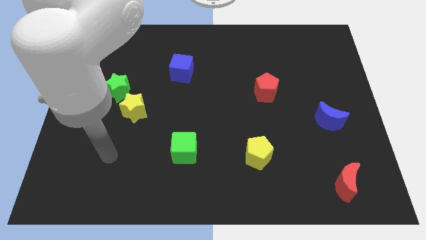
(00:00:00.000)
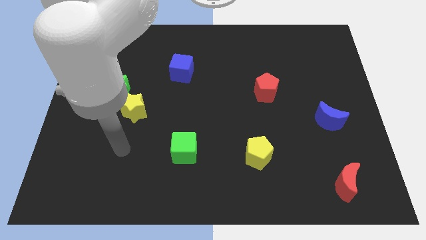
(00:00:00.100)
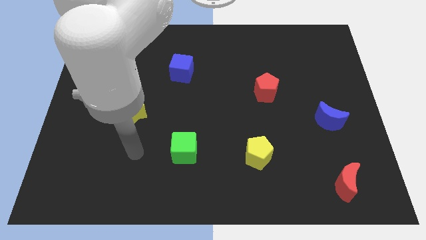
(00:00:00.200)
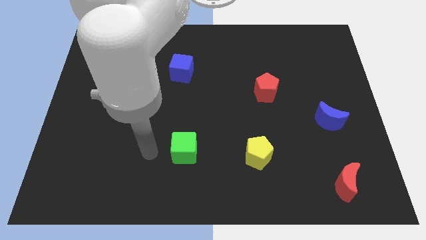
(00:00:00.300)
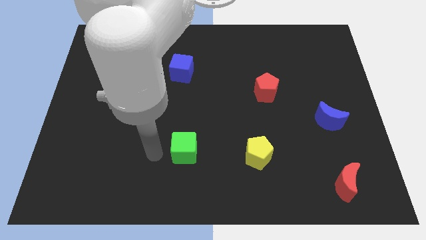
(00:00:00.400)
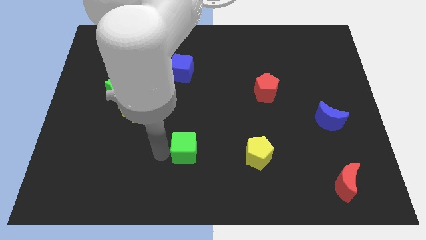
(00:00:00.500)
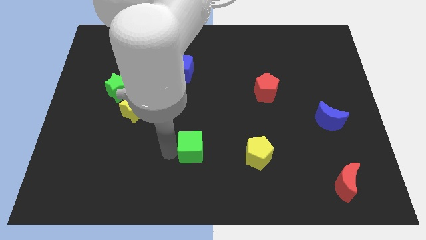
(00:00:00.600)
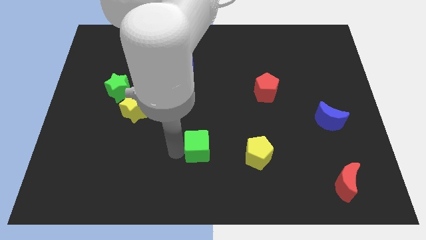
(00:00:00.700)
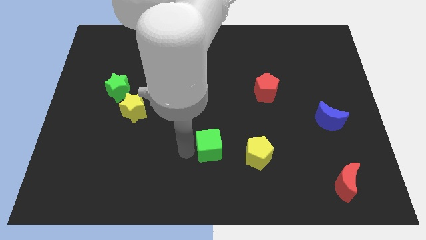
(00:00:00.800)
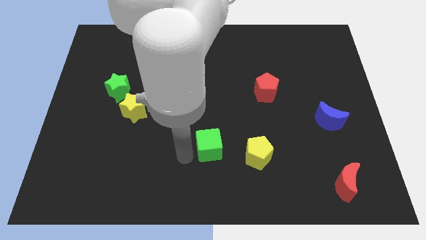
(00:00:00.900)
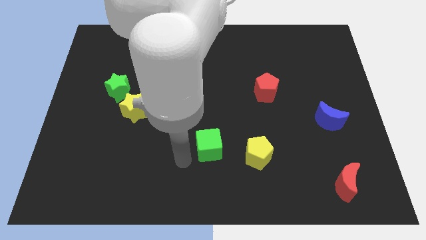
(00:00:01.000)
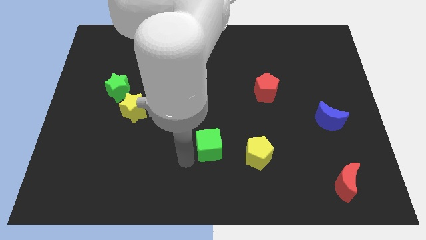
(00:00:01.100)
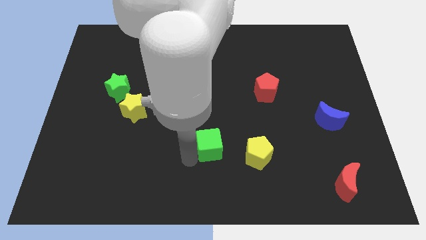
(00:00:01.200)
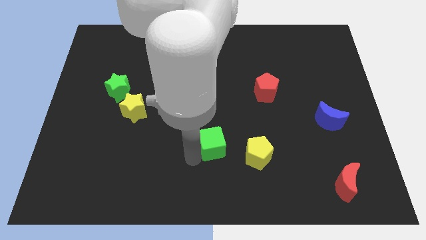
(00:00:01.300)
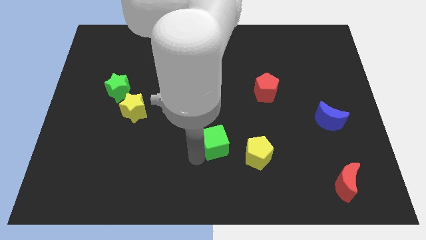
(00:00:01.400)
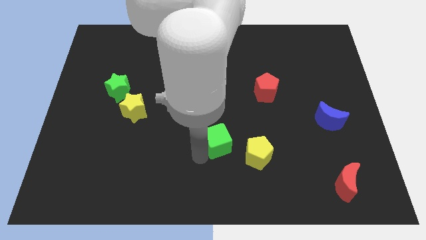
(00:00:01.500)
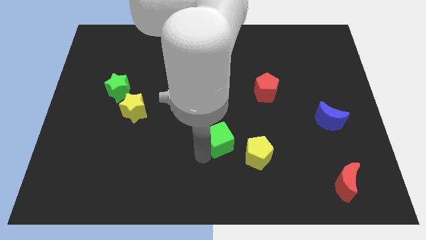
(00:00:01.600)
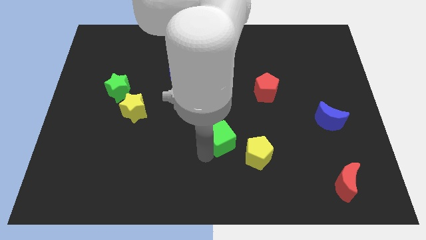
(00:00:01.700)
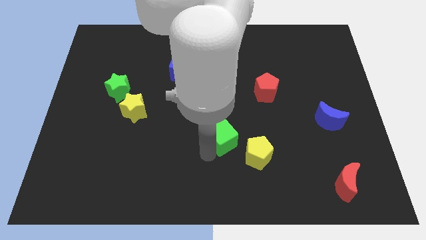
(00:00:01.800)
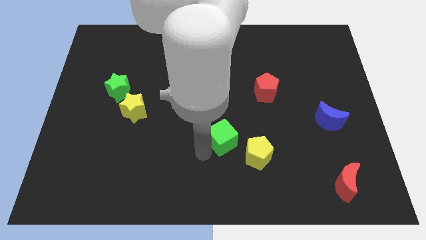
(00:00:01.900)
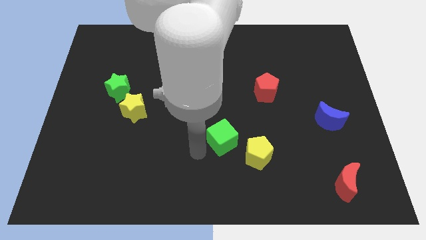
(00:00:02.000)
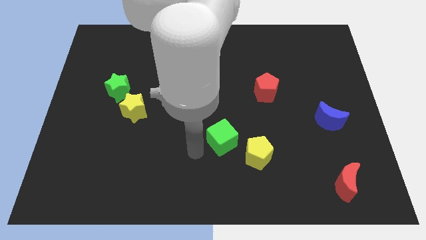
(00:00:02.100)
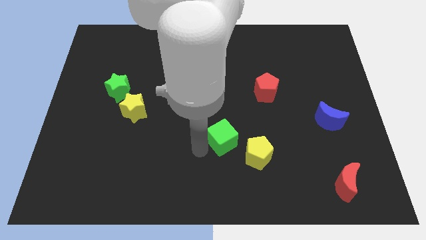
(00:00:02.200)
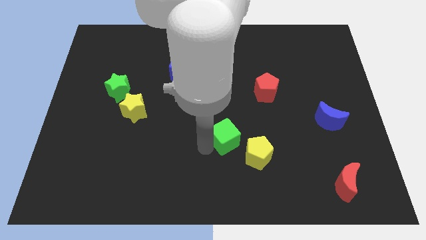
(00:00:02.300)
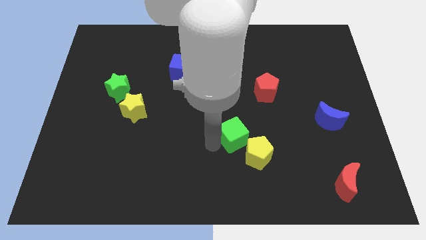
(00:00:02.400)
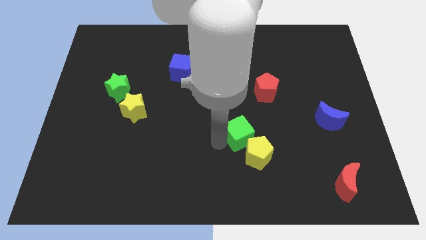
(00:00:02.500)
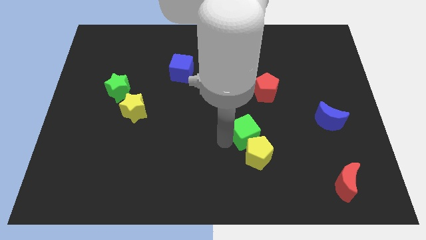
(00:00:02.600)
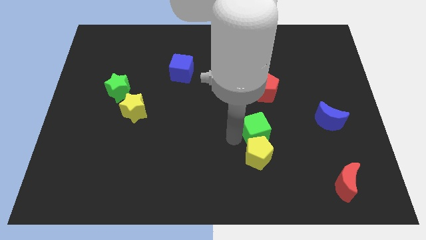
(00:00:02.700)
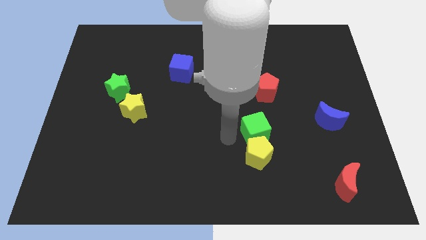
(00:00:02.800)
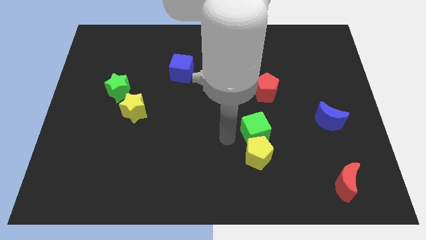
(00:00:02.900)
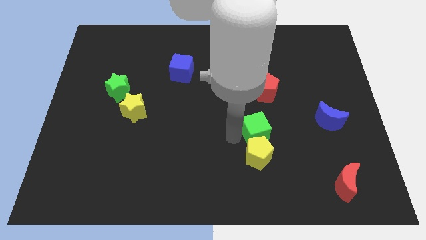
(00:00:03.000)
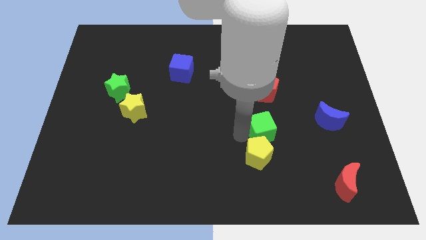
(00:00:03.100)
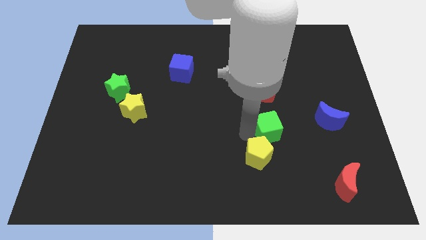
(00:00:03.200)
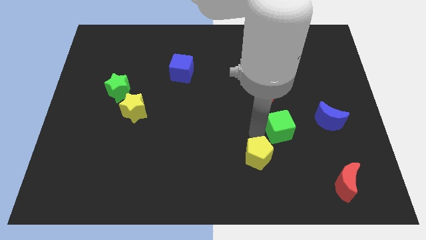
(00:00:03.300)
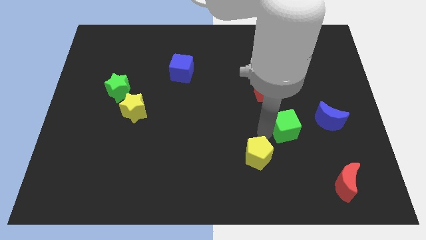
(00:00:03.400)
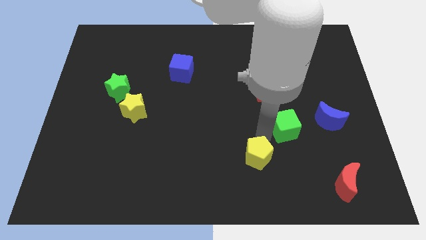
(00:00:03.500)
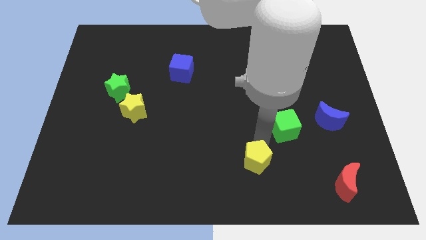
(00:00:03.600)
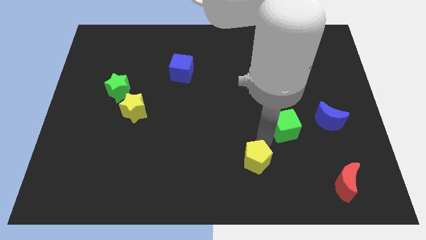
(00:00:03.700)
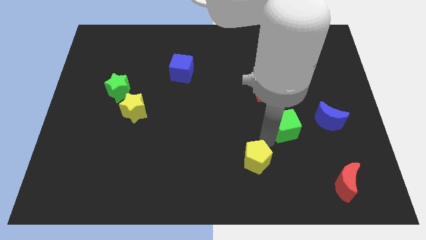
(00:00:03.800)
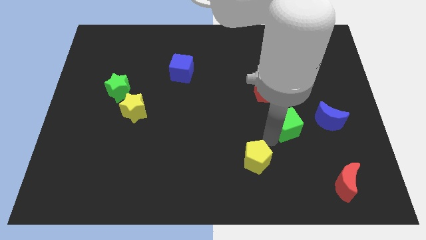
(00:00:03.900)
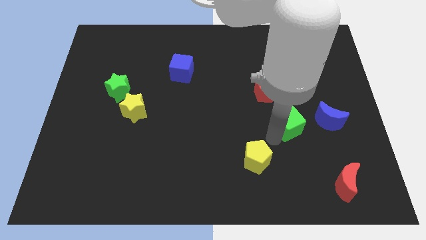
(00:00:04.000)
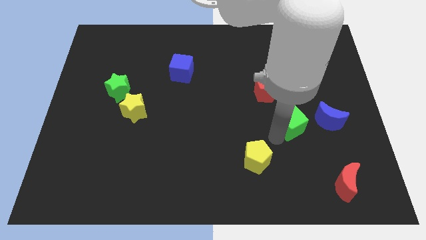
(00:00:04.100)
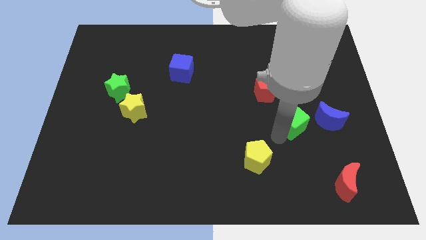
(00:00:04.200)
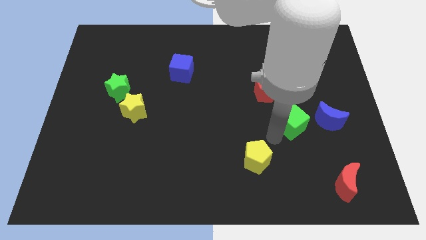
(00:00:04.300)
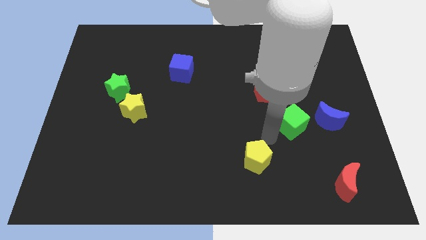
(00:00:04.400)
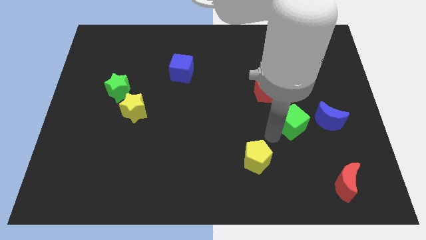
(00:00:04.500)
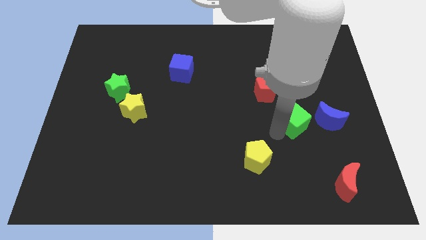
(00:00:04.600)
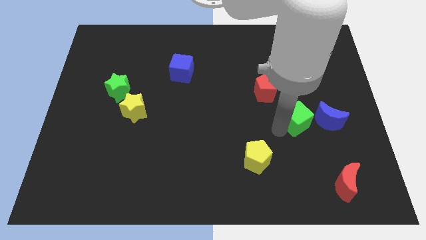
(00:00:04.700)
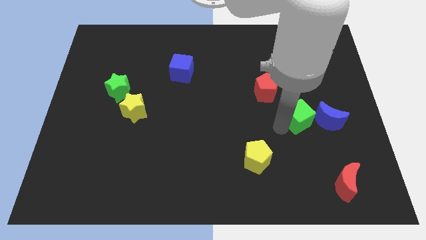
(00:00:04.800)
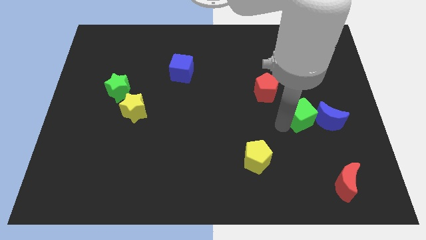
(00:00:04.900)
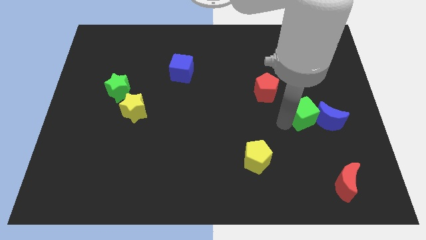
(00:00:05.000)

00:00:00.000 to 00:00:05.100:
push the green cube close to the blue moon

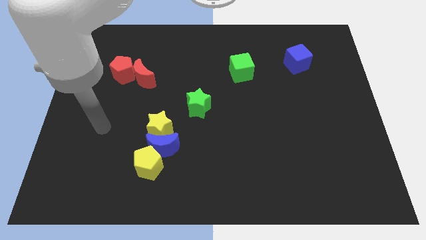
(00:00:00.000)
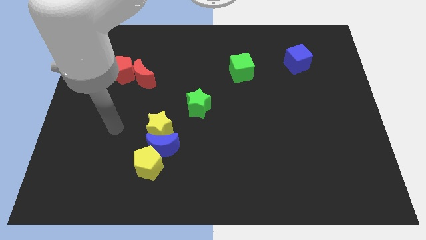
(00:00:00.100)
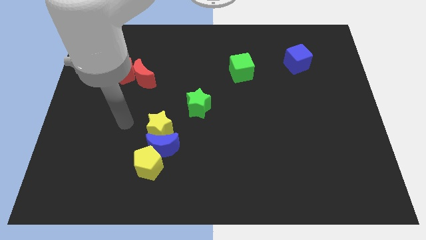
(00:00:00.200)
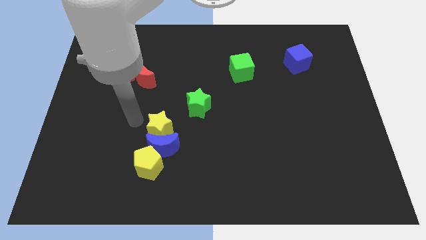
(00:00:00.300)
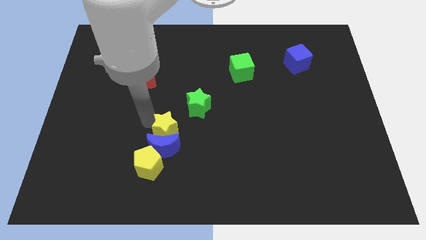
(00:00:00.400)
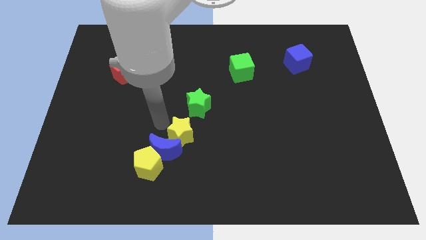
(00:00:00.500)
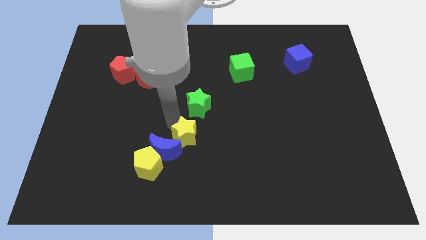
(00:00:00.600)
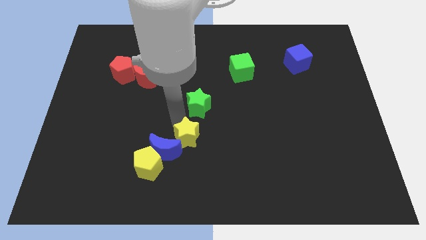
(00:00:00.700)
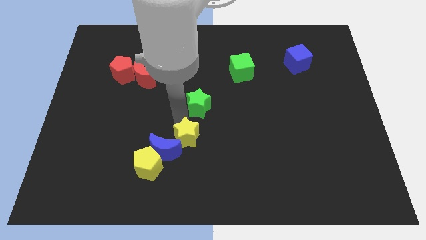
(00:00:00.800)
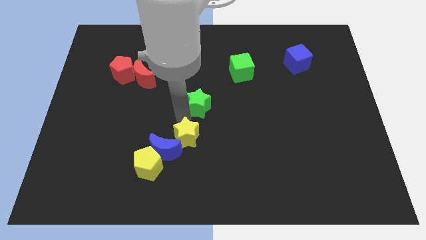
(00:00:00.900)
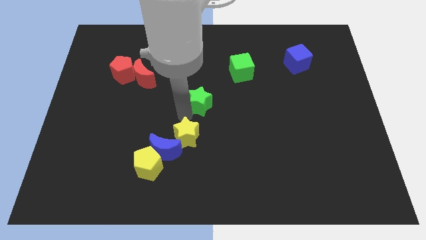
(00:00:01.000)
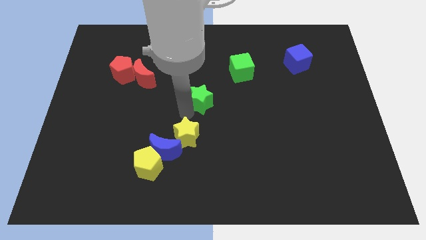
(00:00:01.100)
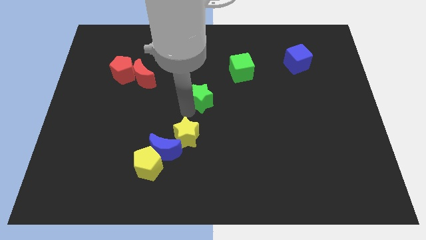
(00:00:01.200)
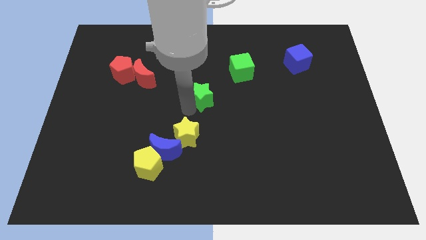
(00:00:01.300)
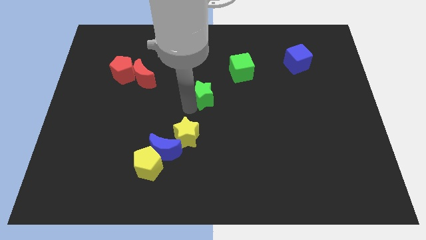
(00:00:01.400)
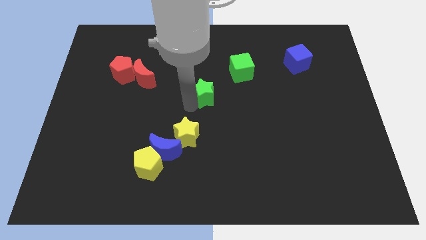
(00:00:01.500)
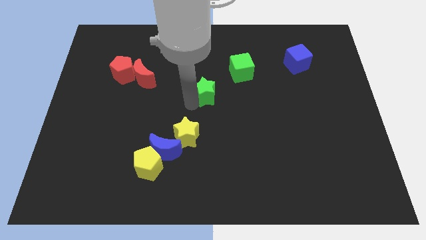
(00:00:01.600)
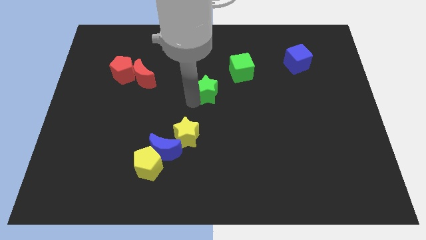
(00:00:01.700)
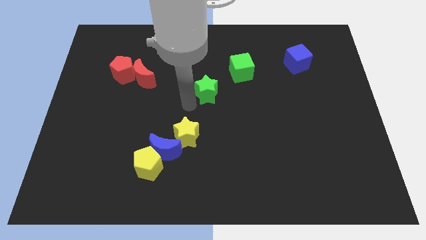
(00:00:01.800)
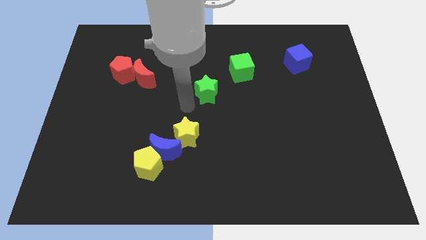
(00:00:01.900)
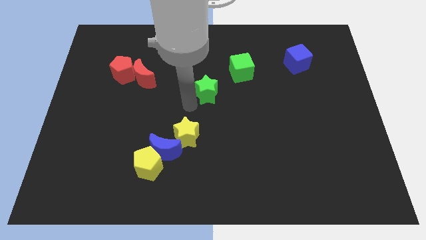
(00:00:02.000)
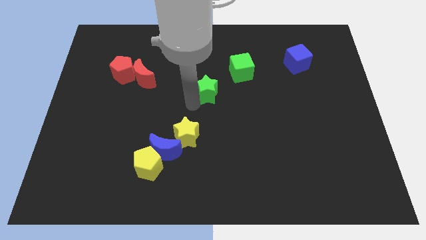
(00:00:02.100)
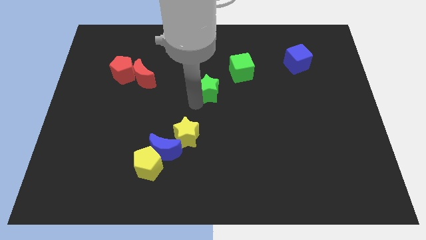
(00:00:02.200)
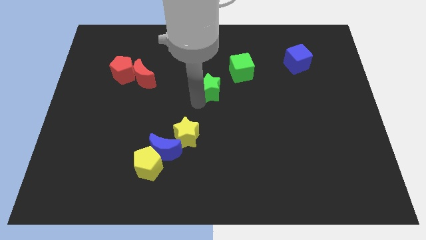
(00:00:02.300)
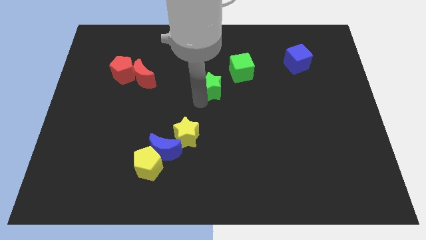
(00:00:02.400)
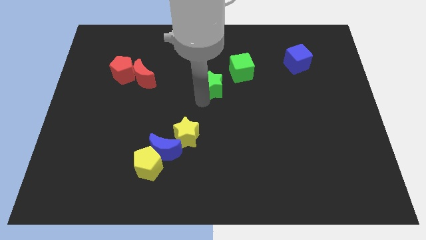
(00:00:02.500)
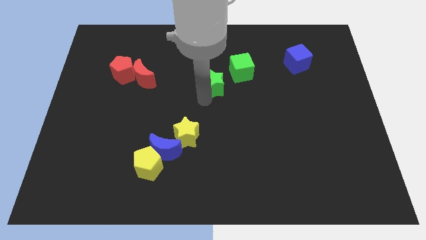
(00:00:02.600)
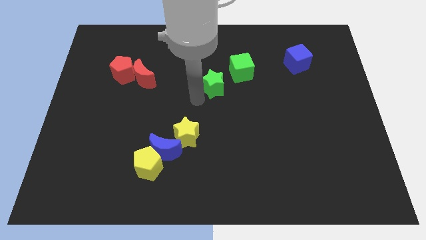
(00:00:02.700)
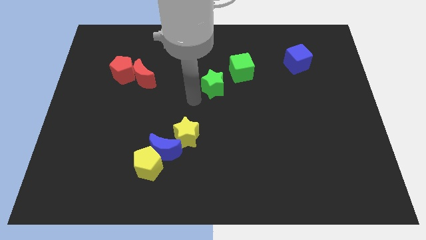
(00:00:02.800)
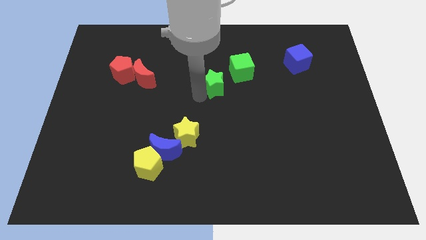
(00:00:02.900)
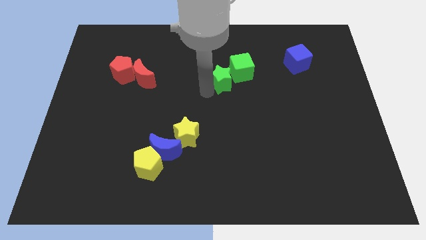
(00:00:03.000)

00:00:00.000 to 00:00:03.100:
put the green star to the green cube
